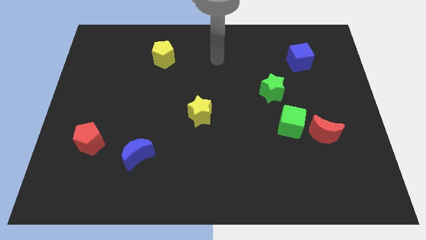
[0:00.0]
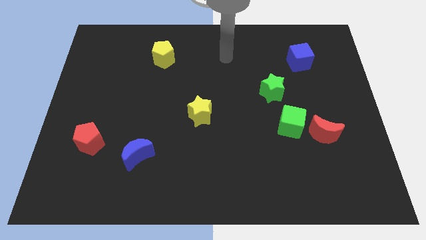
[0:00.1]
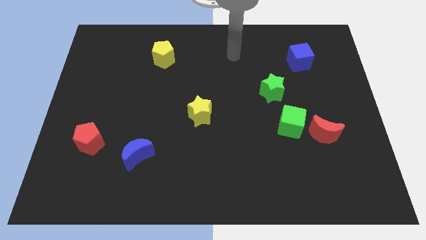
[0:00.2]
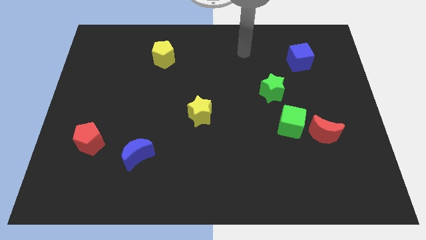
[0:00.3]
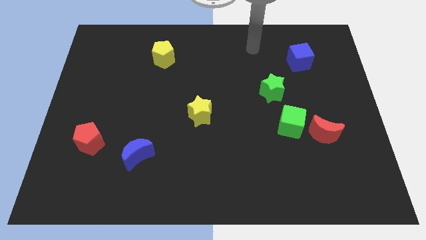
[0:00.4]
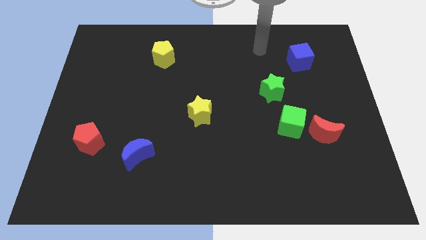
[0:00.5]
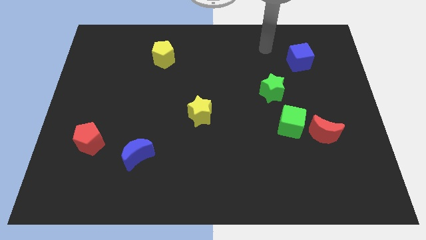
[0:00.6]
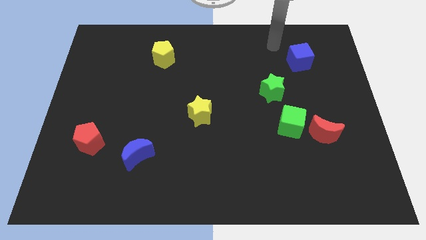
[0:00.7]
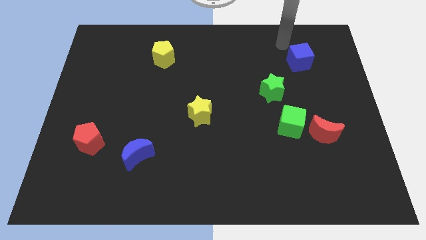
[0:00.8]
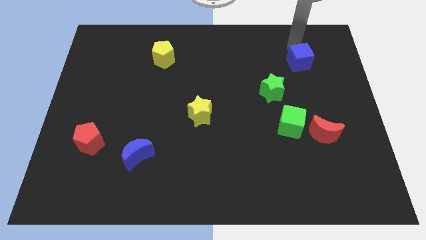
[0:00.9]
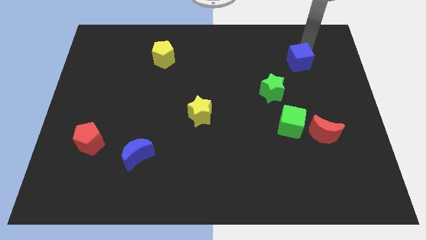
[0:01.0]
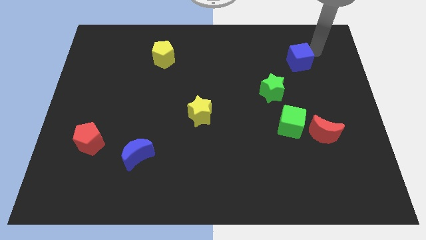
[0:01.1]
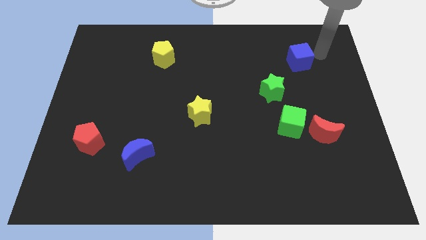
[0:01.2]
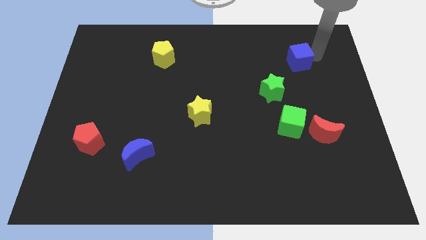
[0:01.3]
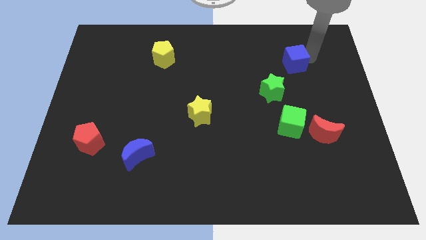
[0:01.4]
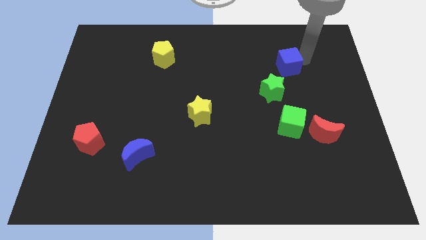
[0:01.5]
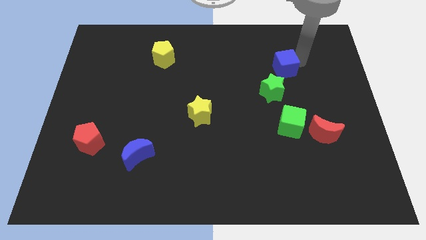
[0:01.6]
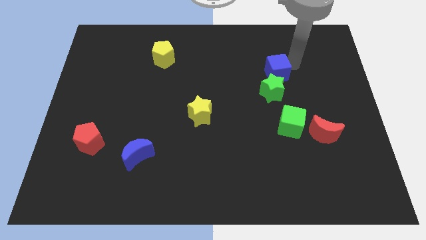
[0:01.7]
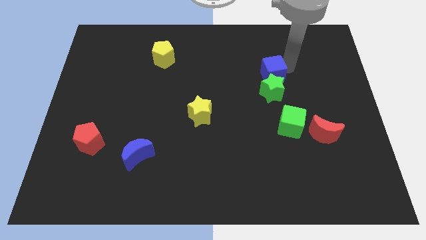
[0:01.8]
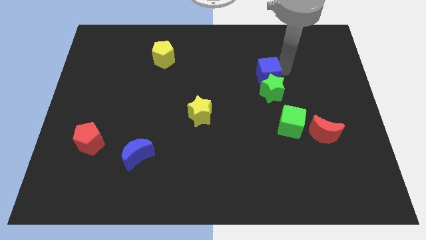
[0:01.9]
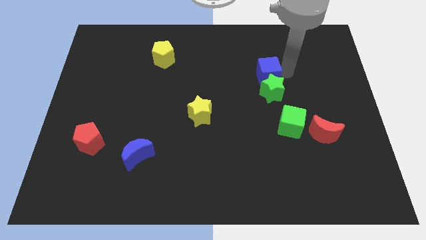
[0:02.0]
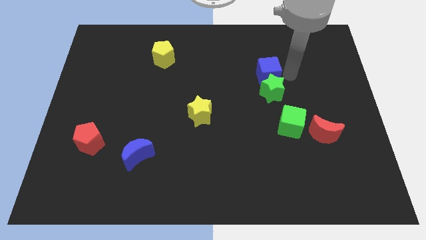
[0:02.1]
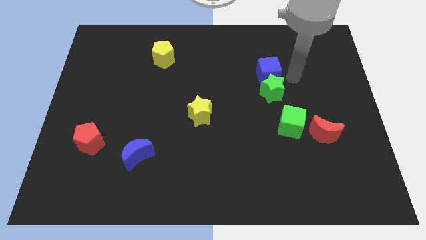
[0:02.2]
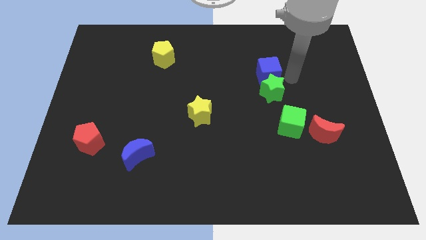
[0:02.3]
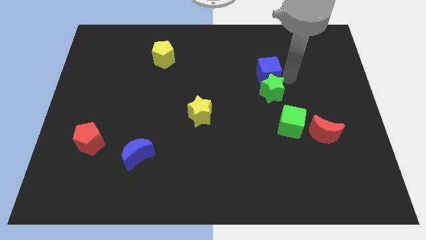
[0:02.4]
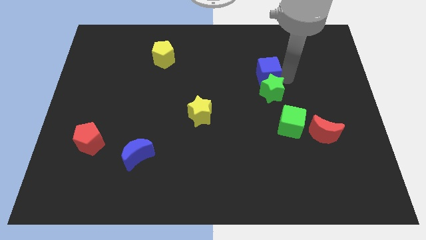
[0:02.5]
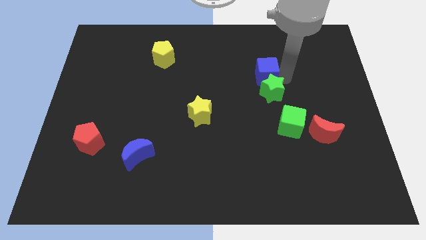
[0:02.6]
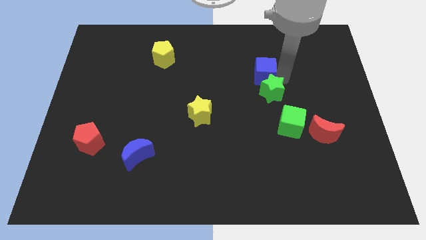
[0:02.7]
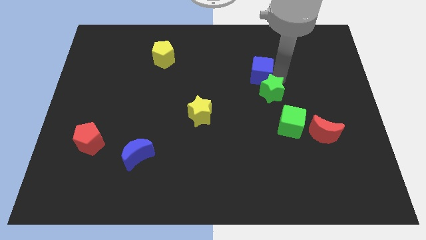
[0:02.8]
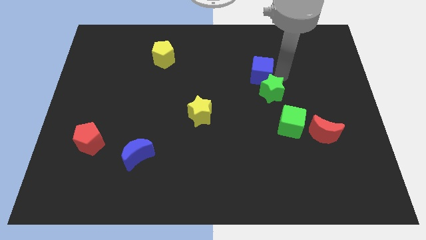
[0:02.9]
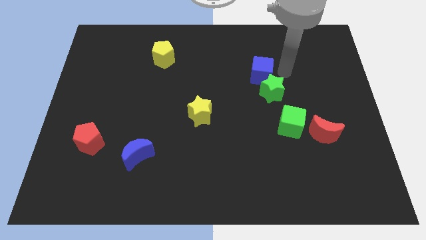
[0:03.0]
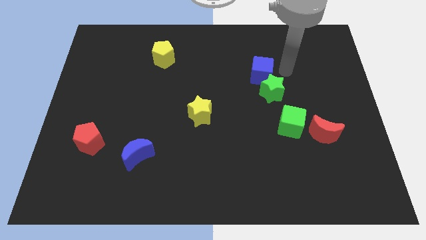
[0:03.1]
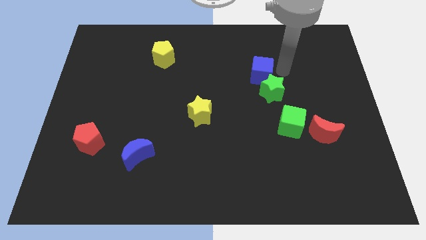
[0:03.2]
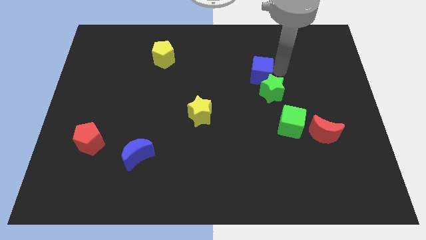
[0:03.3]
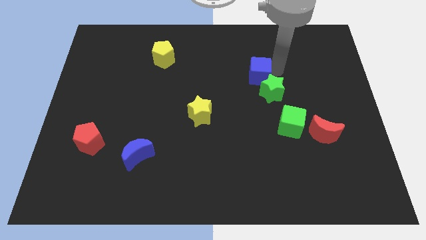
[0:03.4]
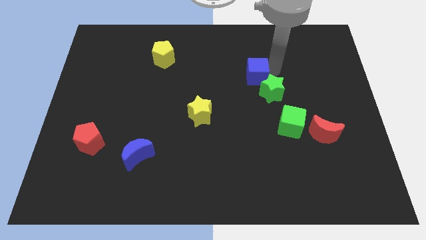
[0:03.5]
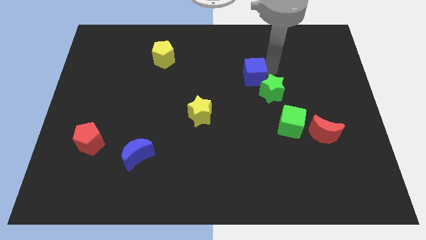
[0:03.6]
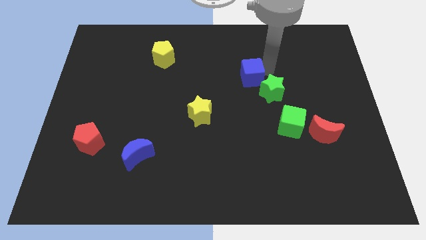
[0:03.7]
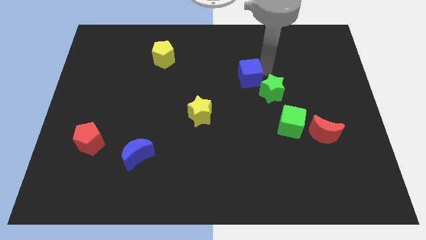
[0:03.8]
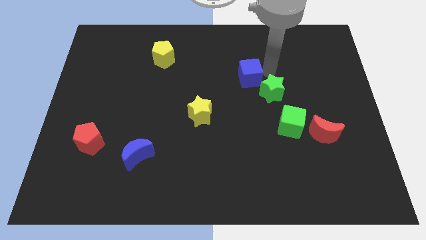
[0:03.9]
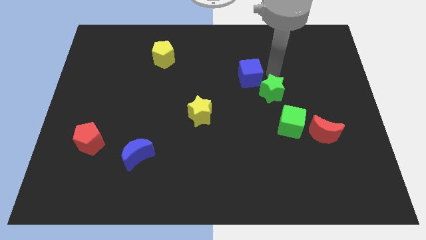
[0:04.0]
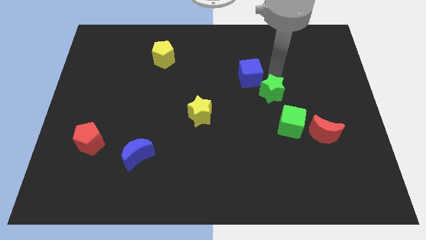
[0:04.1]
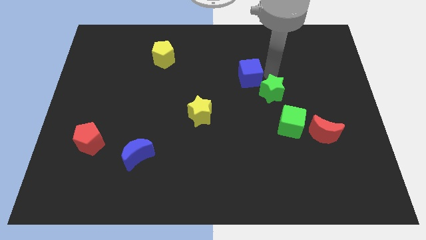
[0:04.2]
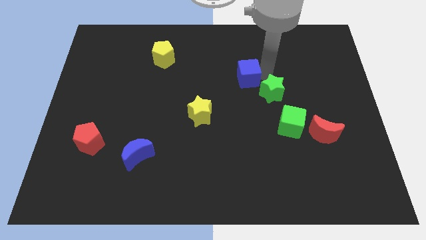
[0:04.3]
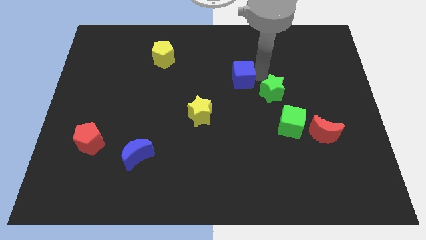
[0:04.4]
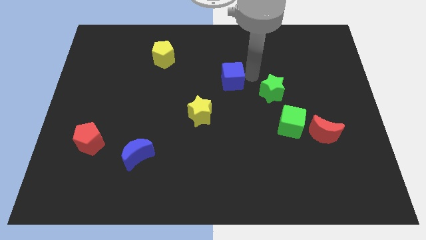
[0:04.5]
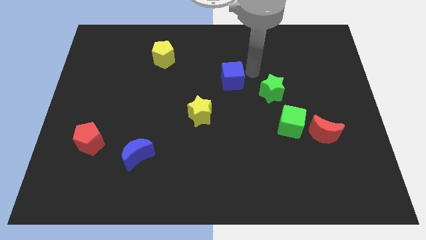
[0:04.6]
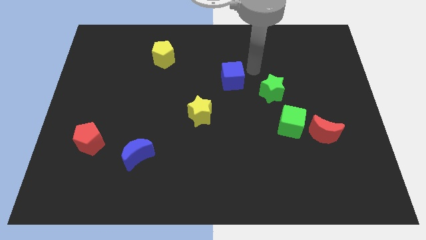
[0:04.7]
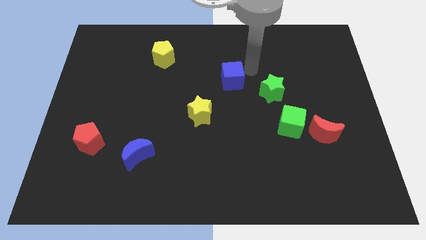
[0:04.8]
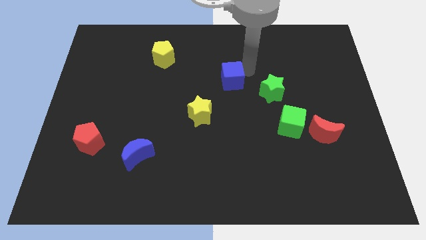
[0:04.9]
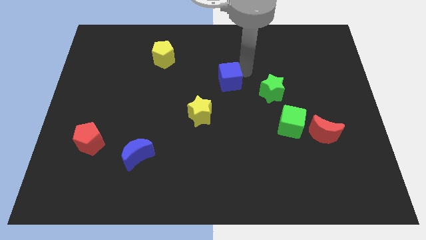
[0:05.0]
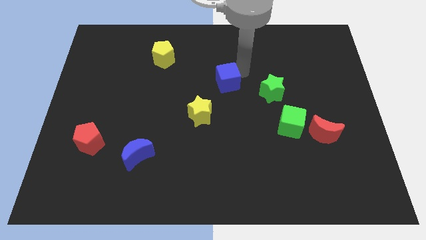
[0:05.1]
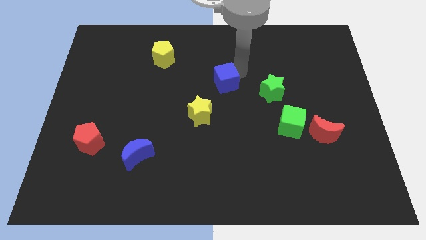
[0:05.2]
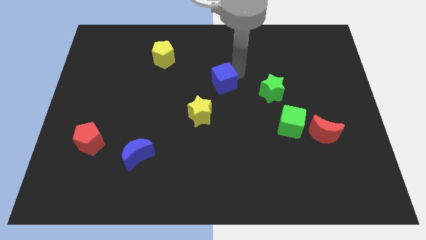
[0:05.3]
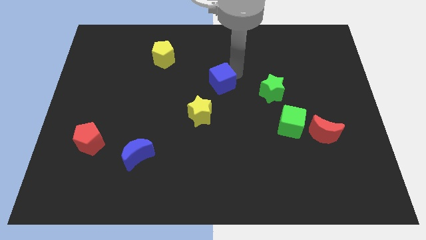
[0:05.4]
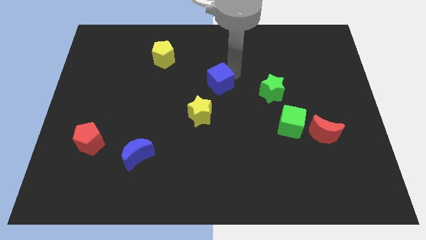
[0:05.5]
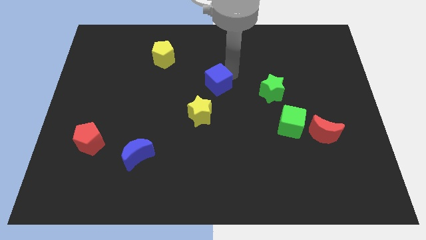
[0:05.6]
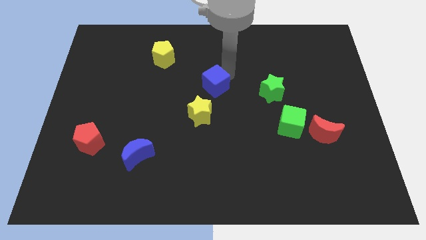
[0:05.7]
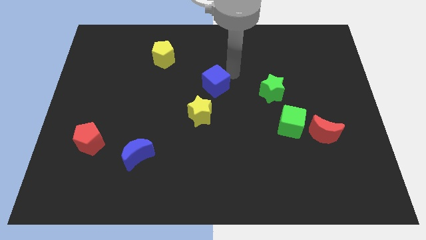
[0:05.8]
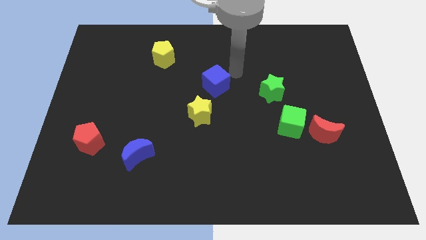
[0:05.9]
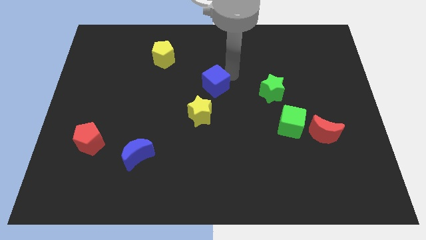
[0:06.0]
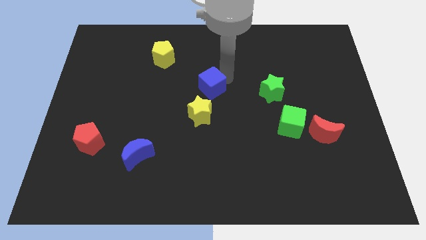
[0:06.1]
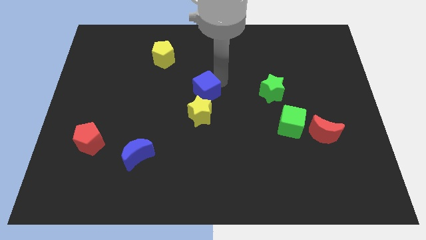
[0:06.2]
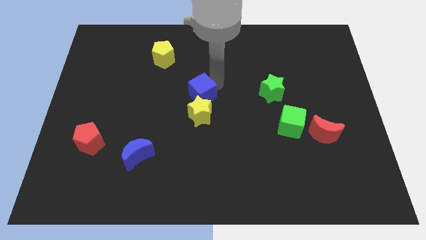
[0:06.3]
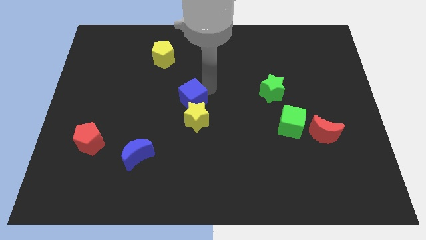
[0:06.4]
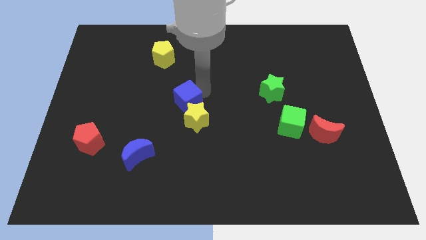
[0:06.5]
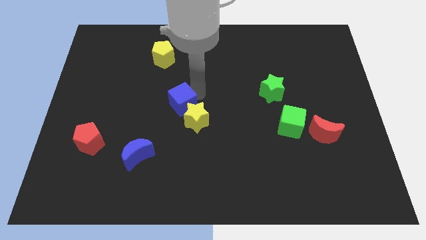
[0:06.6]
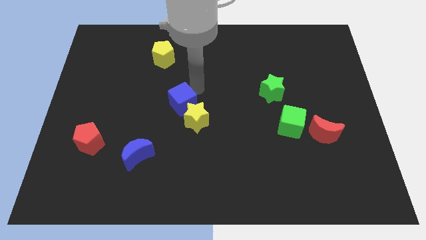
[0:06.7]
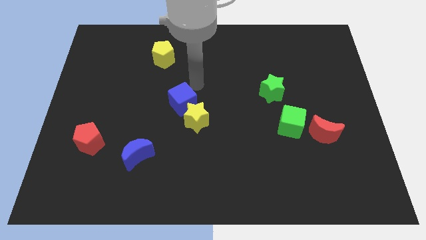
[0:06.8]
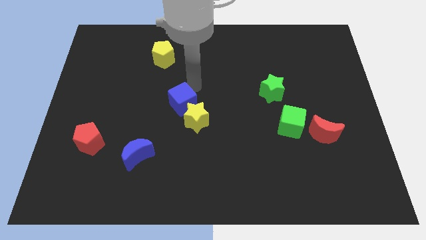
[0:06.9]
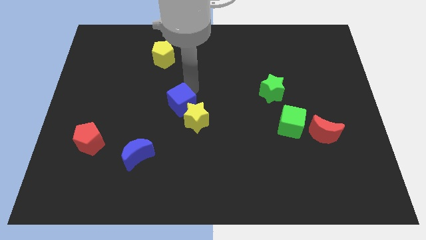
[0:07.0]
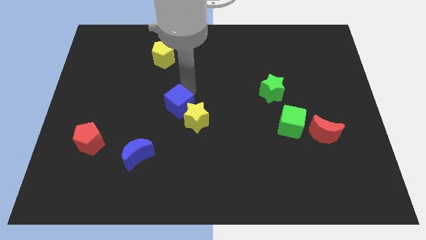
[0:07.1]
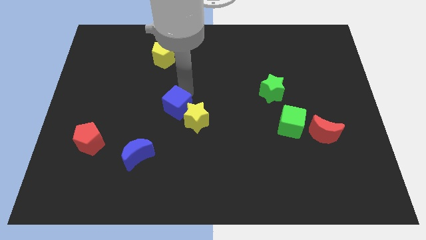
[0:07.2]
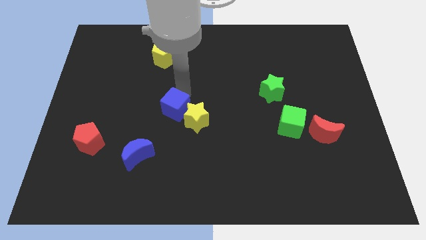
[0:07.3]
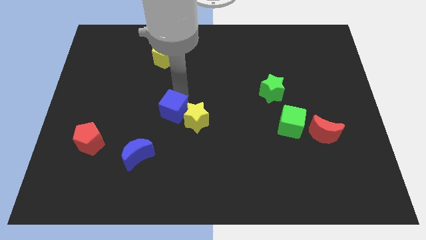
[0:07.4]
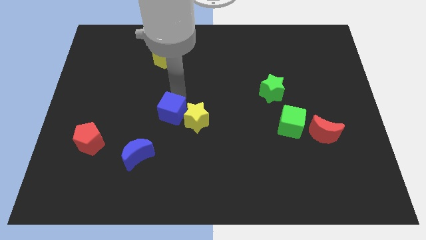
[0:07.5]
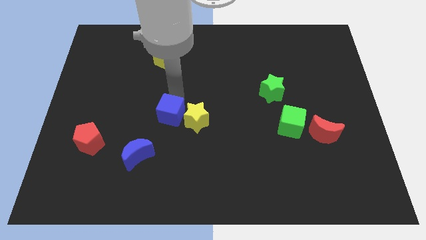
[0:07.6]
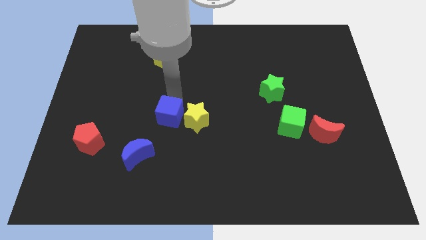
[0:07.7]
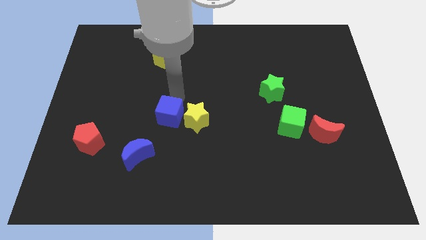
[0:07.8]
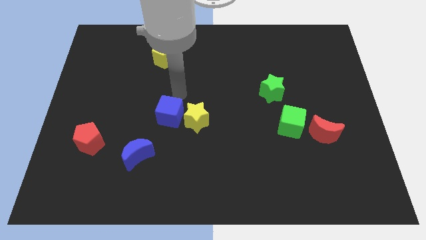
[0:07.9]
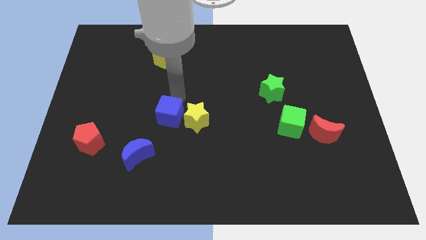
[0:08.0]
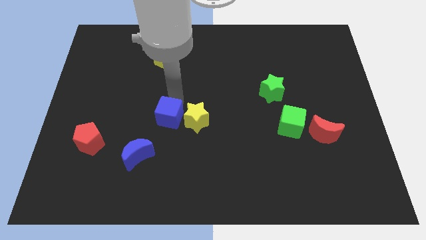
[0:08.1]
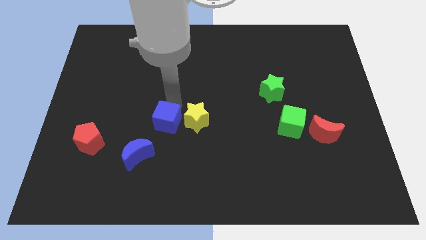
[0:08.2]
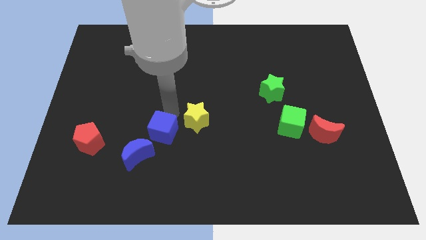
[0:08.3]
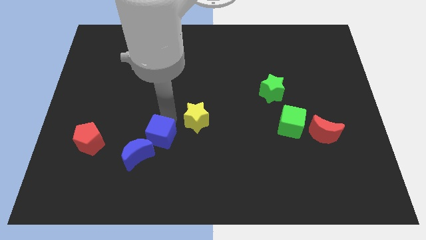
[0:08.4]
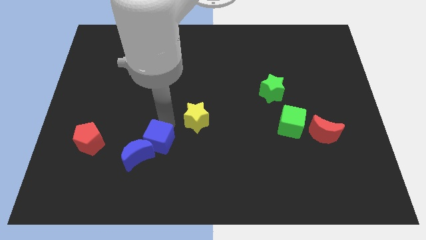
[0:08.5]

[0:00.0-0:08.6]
push the blue cube close to the blue moon
